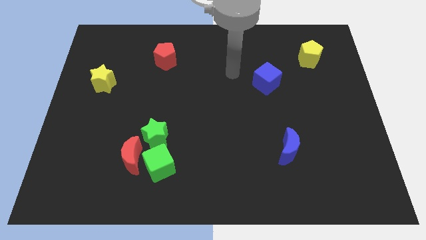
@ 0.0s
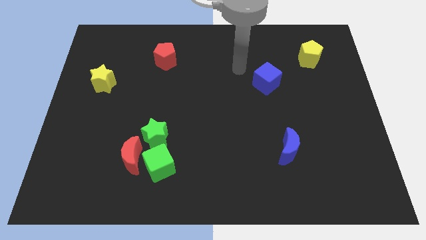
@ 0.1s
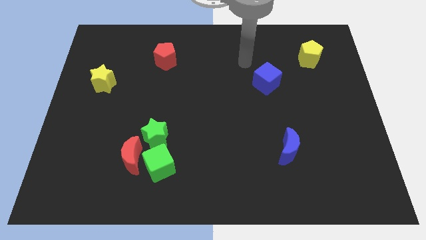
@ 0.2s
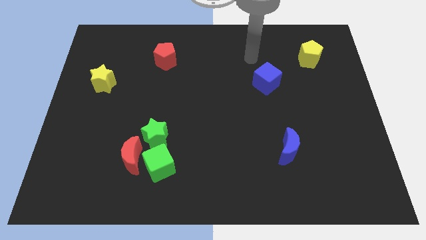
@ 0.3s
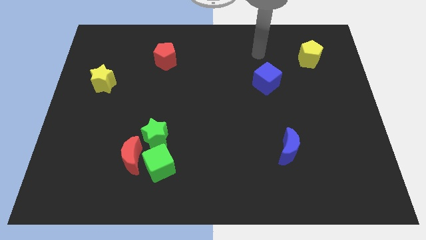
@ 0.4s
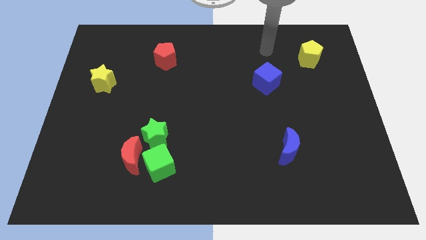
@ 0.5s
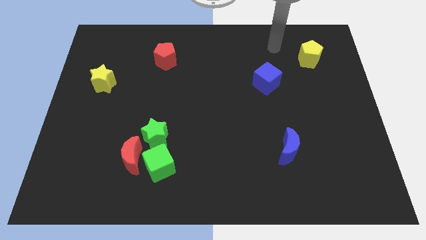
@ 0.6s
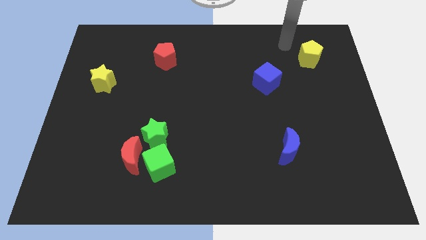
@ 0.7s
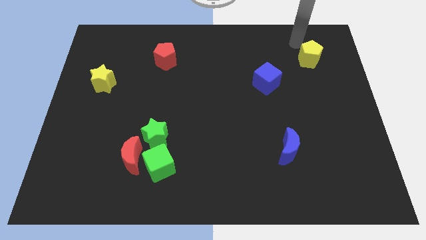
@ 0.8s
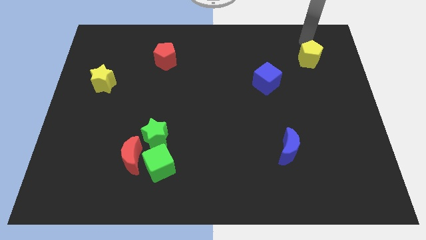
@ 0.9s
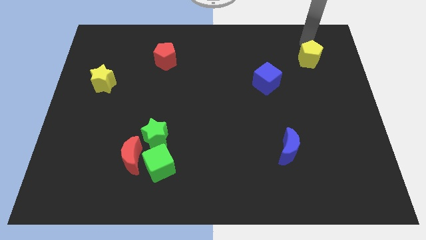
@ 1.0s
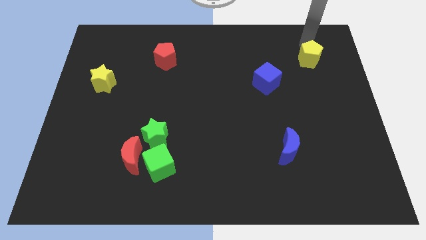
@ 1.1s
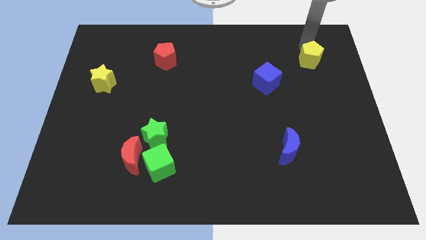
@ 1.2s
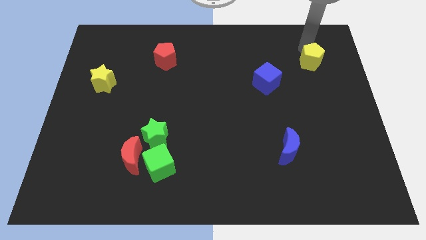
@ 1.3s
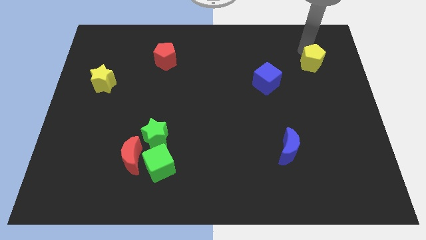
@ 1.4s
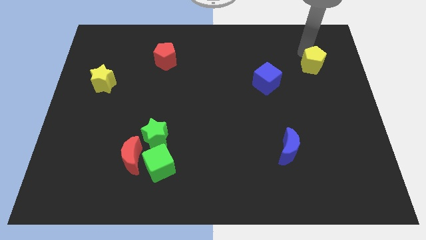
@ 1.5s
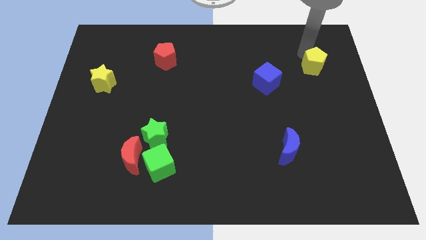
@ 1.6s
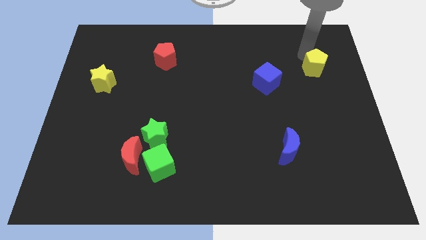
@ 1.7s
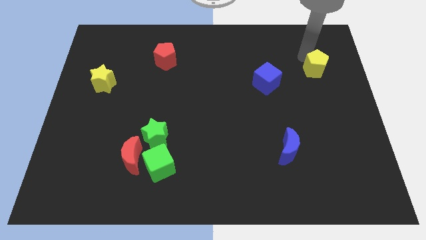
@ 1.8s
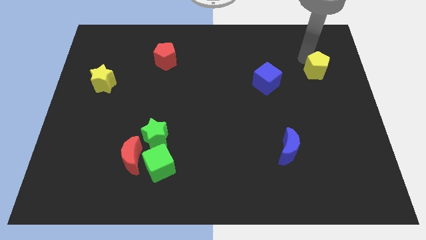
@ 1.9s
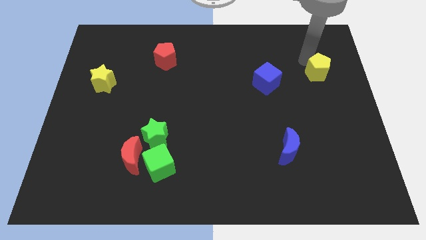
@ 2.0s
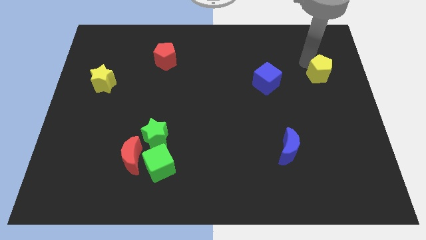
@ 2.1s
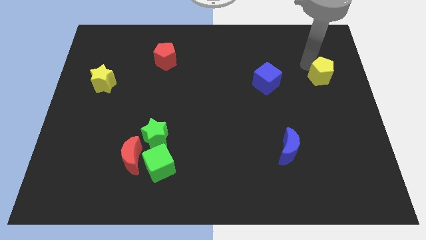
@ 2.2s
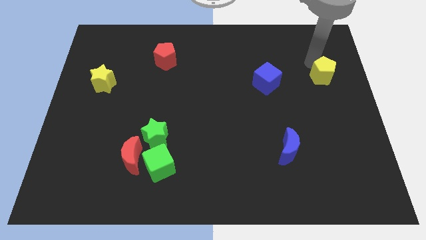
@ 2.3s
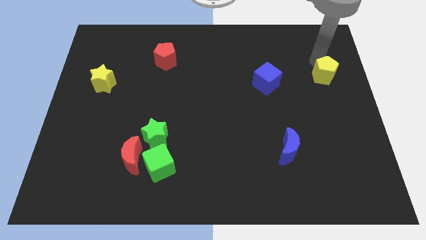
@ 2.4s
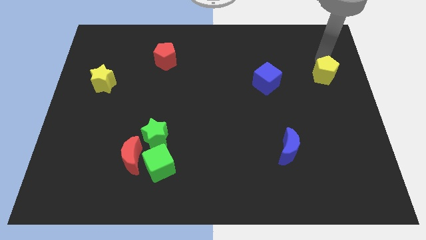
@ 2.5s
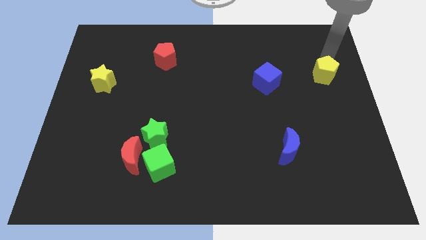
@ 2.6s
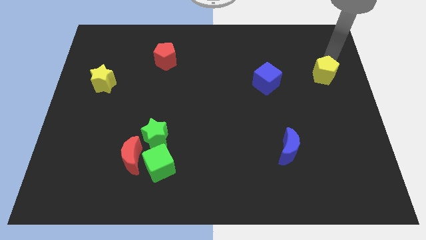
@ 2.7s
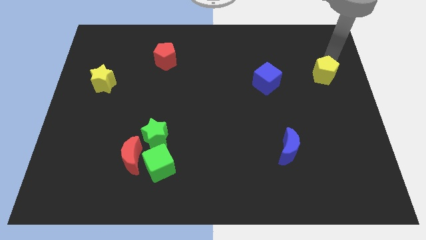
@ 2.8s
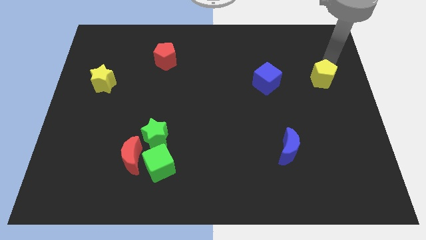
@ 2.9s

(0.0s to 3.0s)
move the yellow pentagon a little downwards

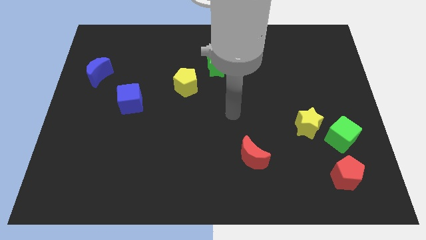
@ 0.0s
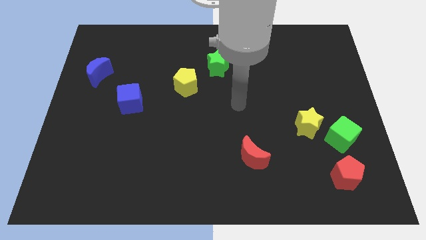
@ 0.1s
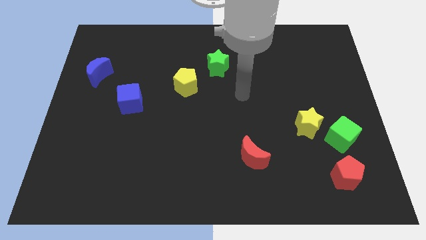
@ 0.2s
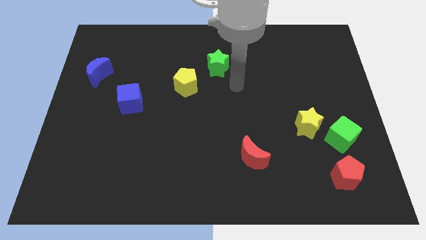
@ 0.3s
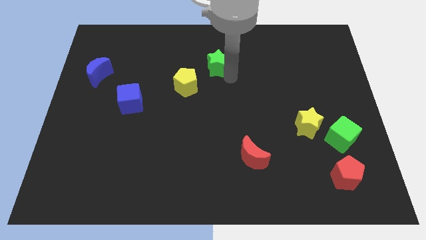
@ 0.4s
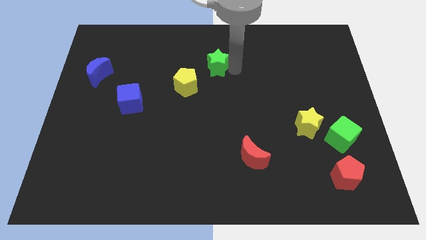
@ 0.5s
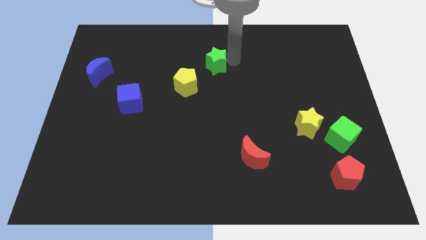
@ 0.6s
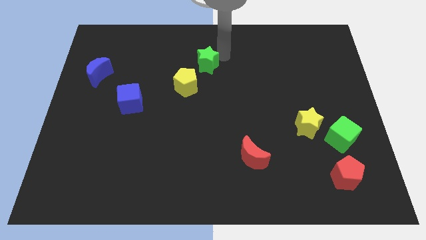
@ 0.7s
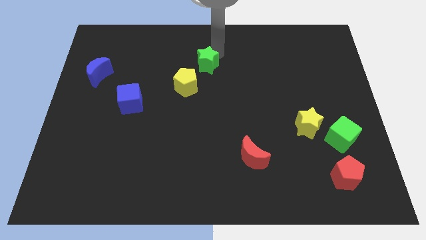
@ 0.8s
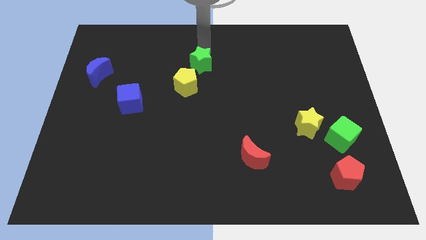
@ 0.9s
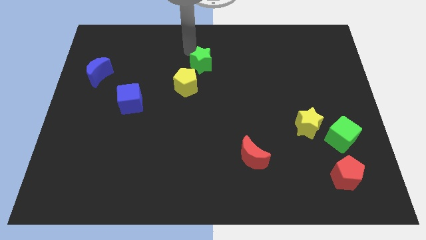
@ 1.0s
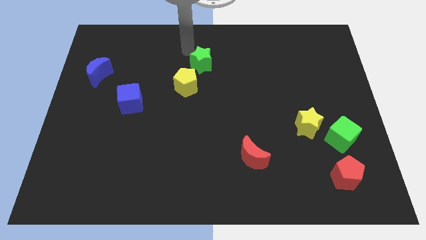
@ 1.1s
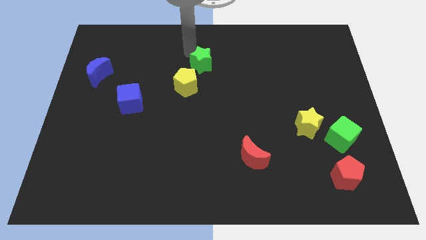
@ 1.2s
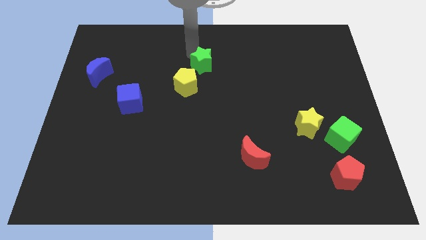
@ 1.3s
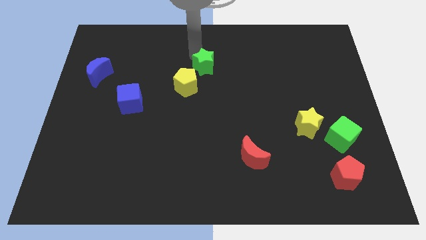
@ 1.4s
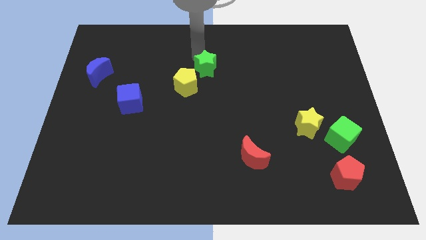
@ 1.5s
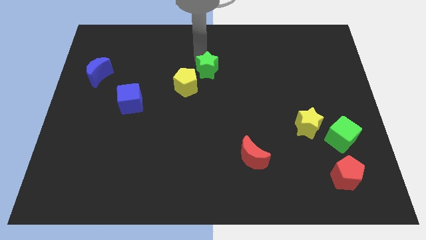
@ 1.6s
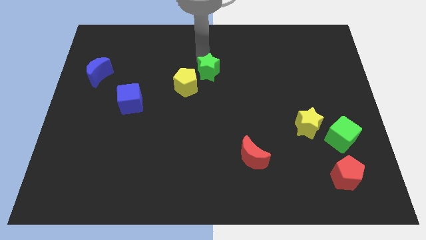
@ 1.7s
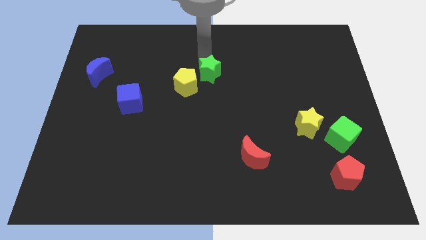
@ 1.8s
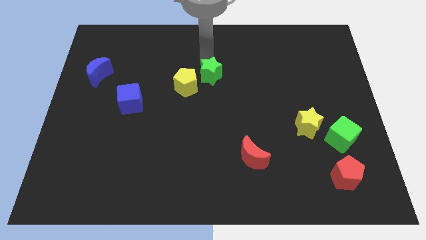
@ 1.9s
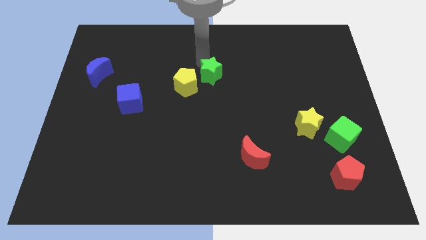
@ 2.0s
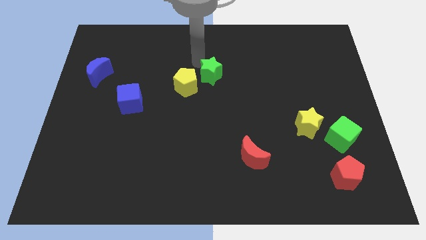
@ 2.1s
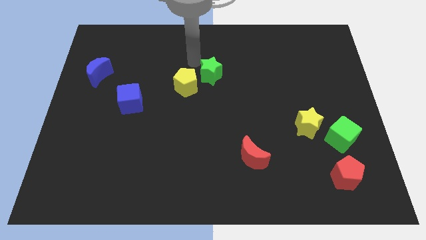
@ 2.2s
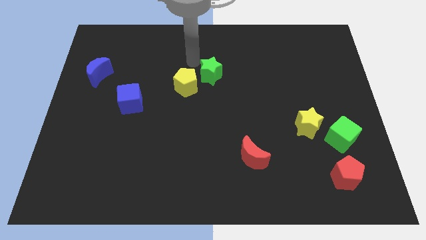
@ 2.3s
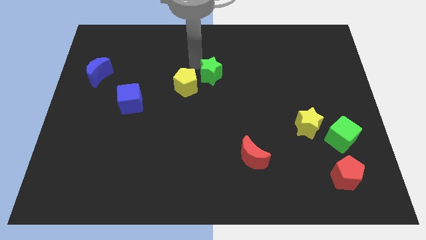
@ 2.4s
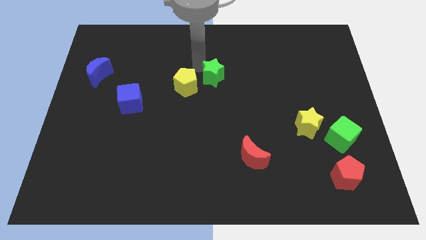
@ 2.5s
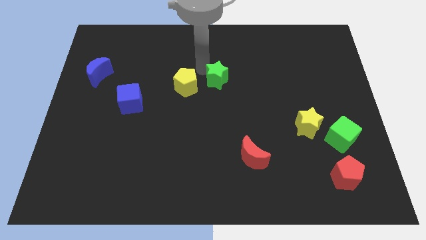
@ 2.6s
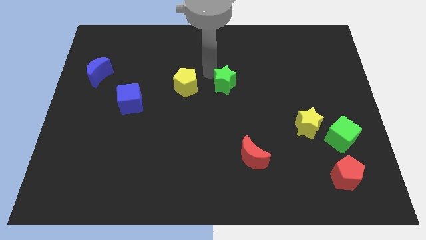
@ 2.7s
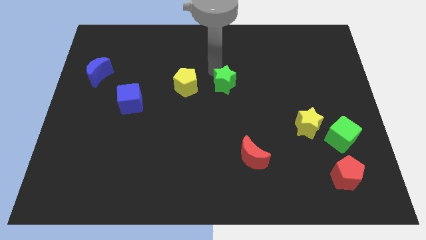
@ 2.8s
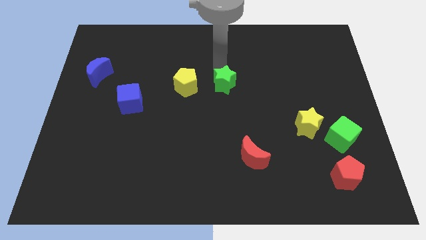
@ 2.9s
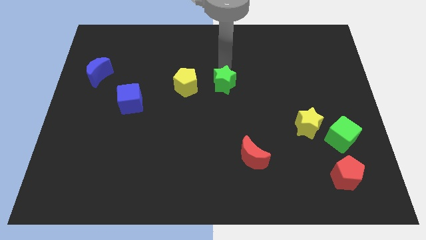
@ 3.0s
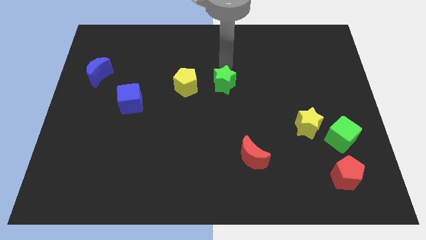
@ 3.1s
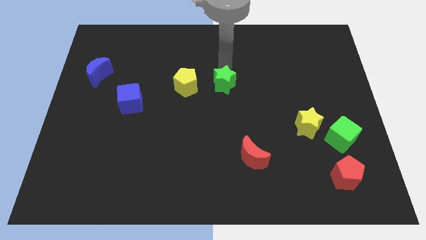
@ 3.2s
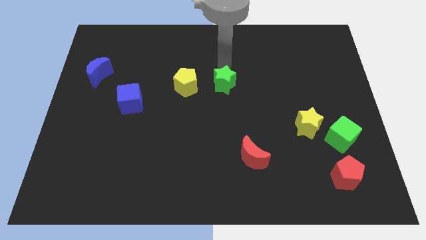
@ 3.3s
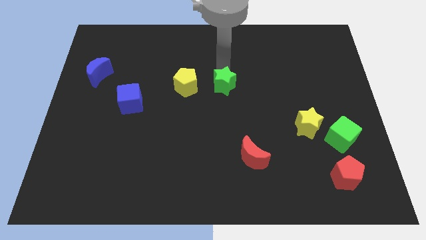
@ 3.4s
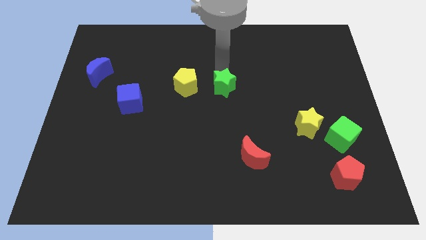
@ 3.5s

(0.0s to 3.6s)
move the green star downwards a little bit

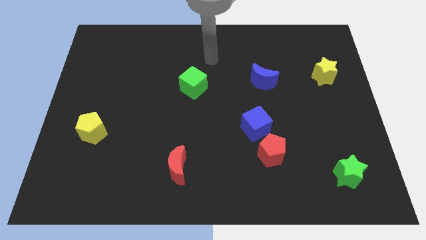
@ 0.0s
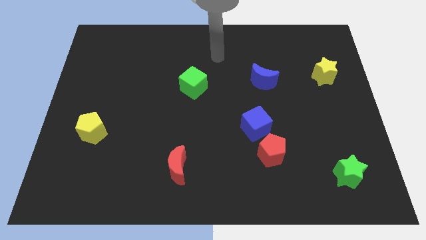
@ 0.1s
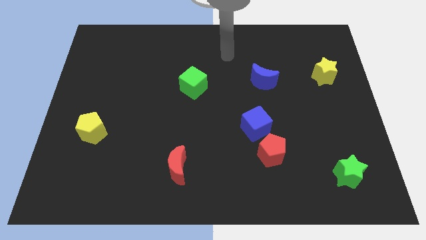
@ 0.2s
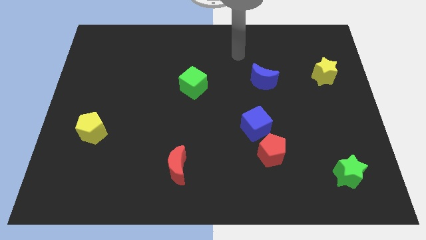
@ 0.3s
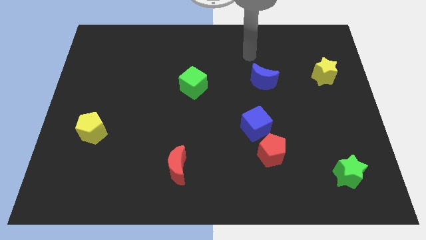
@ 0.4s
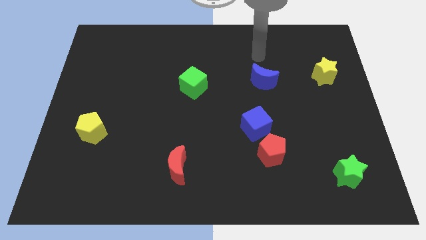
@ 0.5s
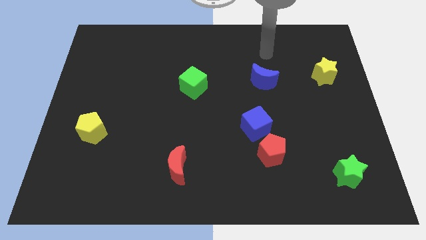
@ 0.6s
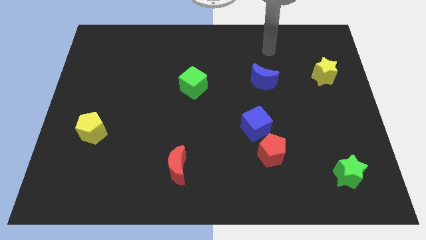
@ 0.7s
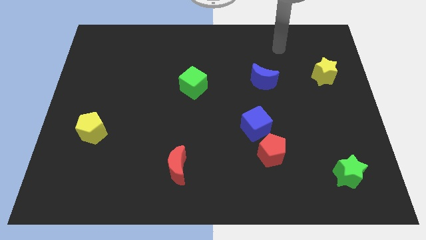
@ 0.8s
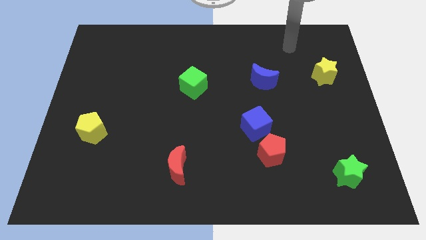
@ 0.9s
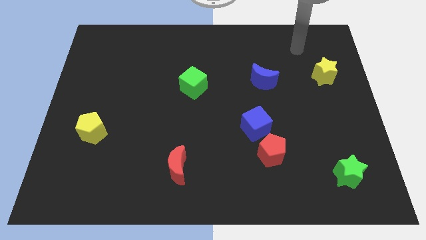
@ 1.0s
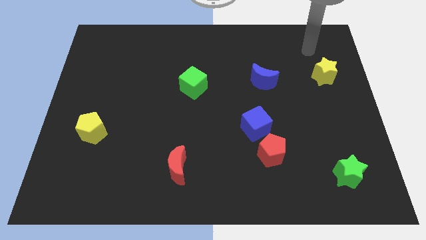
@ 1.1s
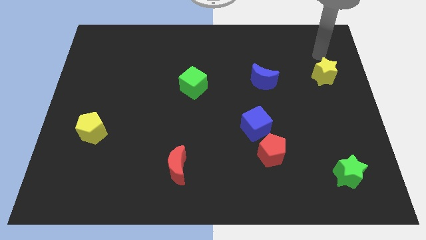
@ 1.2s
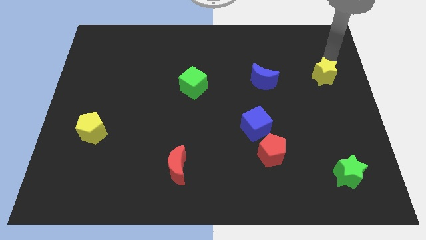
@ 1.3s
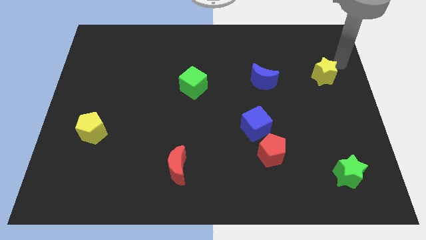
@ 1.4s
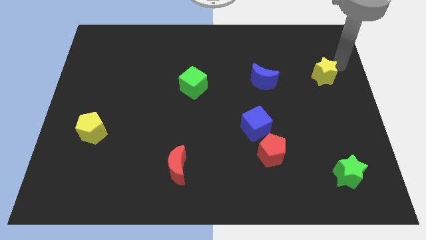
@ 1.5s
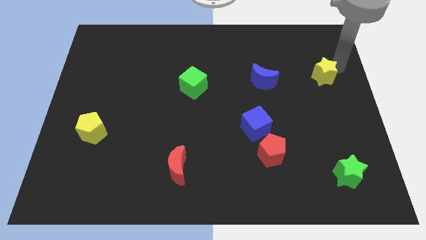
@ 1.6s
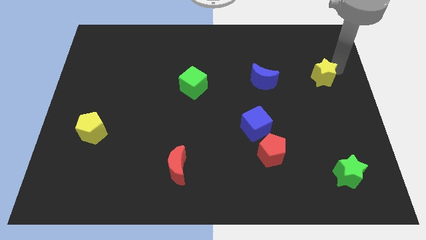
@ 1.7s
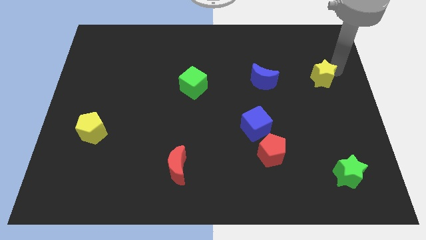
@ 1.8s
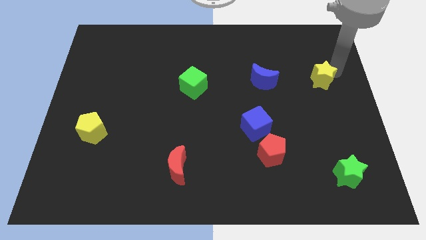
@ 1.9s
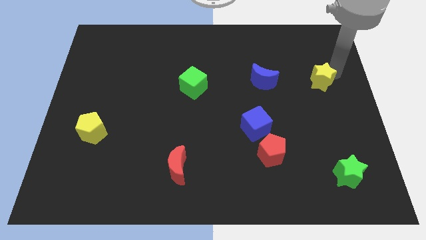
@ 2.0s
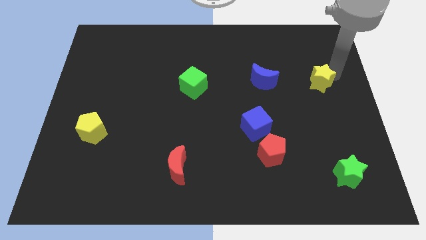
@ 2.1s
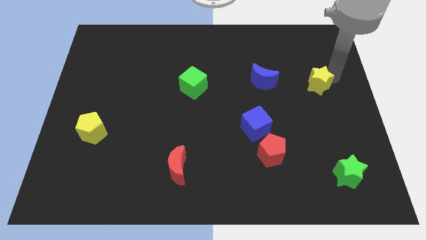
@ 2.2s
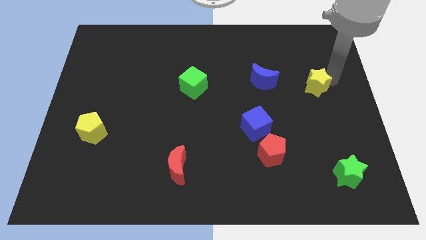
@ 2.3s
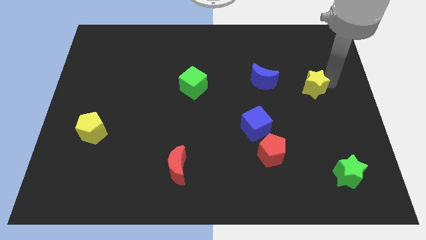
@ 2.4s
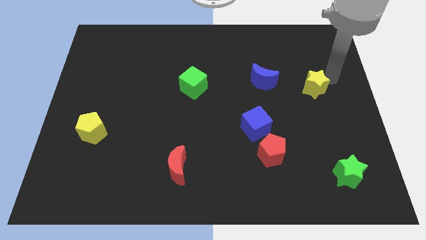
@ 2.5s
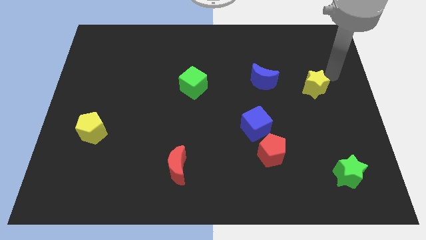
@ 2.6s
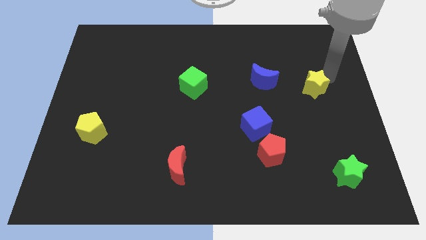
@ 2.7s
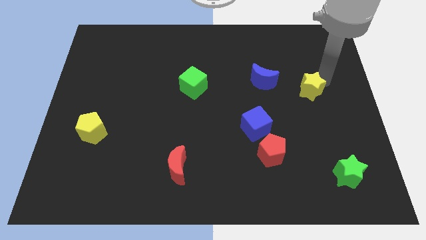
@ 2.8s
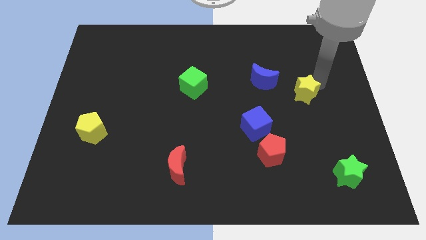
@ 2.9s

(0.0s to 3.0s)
slightly slide the yellow star downwards and left
